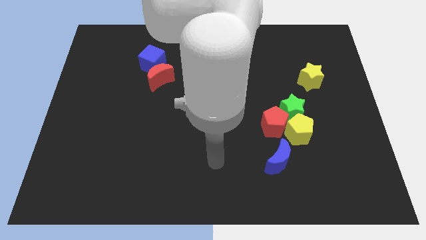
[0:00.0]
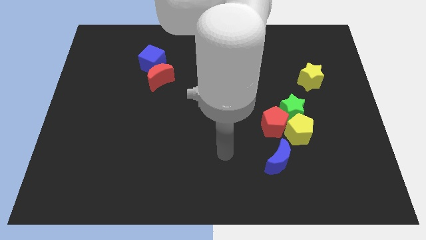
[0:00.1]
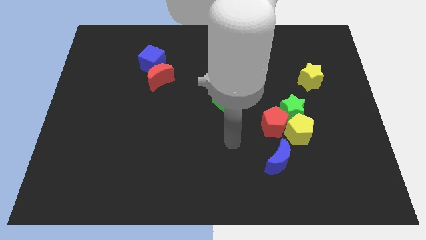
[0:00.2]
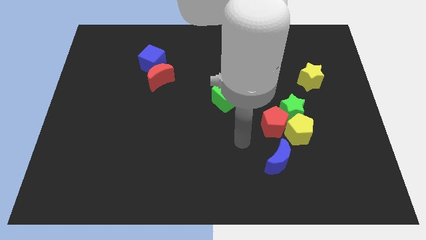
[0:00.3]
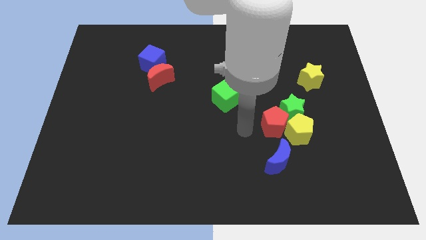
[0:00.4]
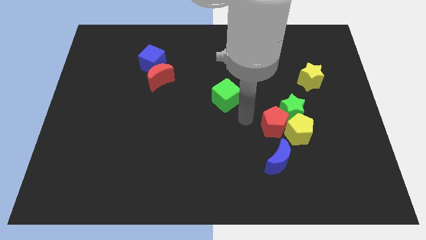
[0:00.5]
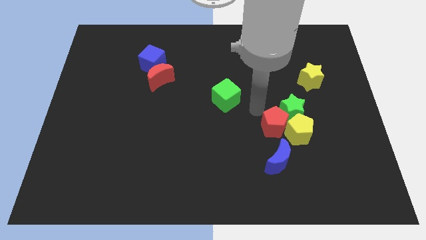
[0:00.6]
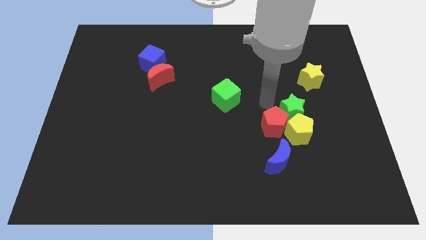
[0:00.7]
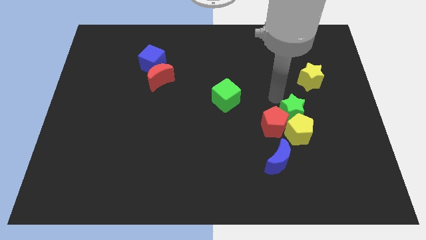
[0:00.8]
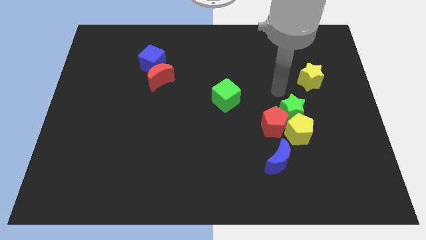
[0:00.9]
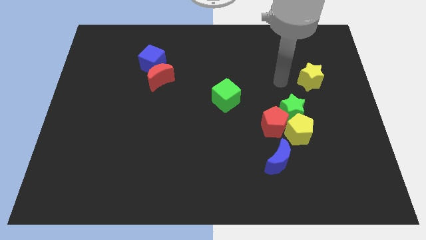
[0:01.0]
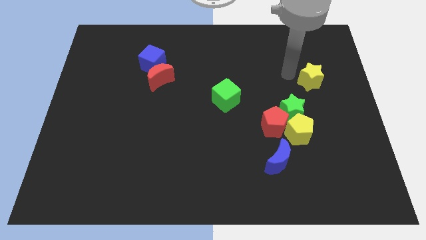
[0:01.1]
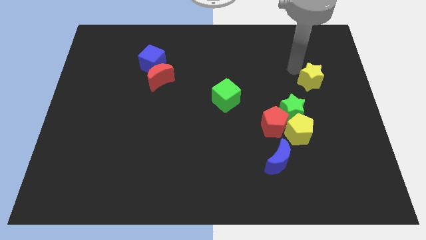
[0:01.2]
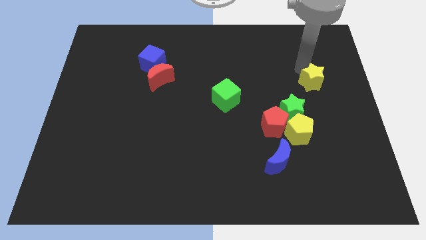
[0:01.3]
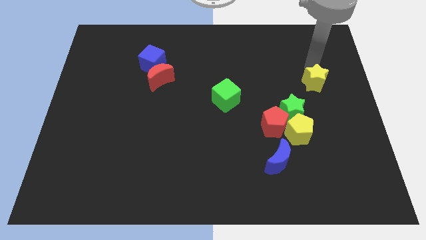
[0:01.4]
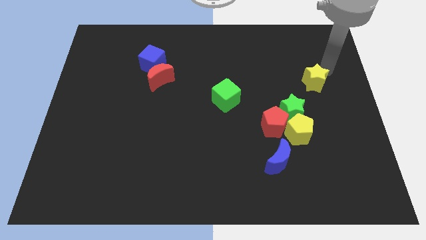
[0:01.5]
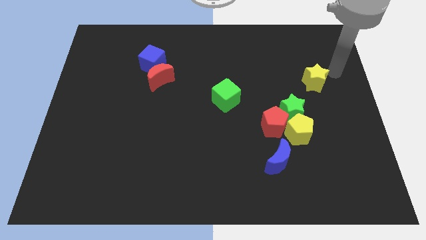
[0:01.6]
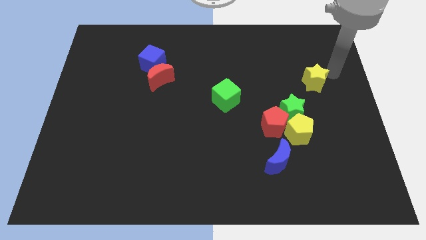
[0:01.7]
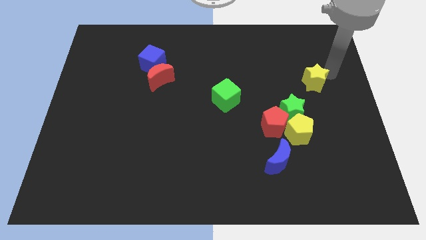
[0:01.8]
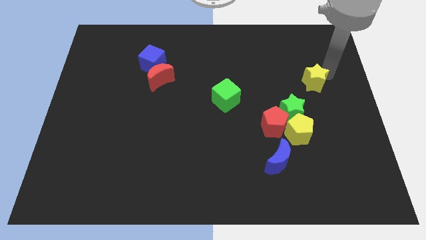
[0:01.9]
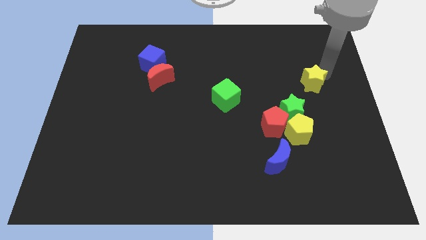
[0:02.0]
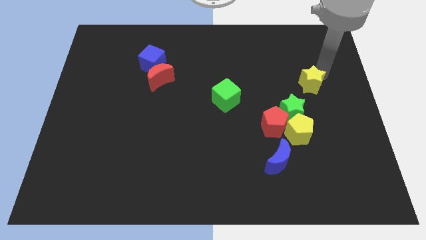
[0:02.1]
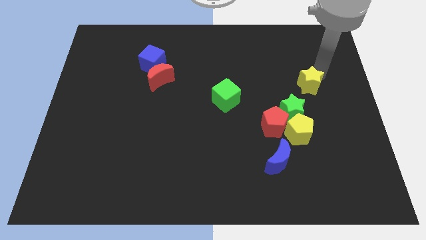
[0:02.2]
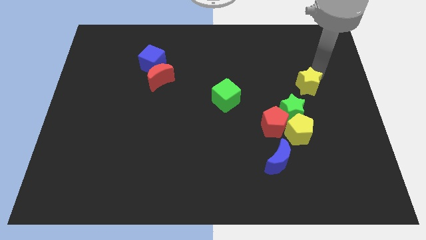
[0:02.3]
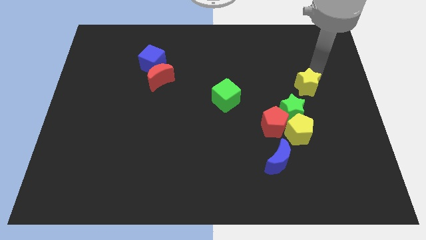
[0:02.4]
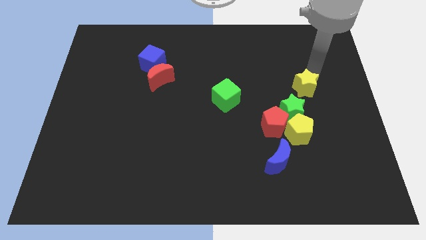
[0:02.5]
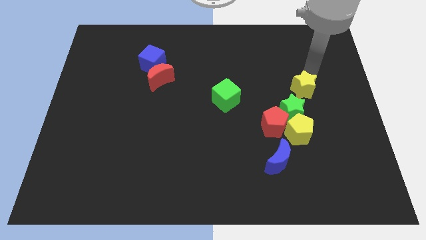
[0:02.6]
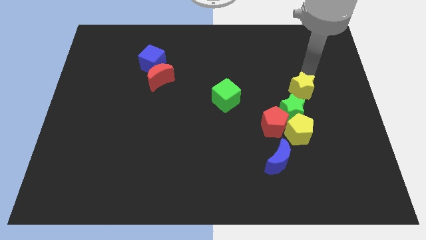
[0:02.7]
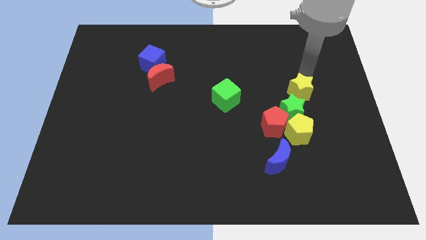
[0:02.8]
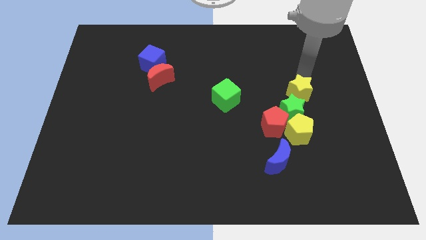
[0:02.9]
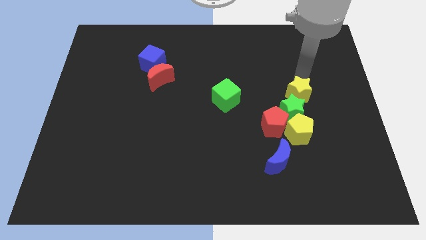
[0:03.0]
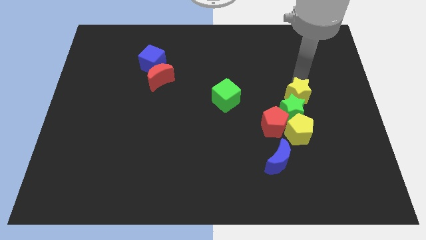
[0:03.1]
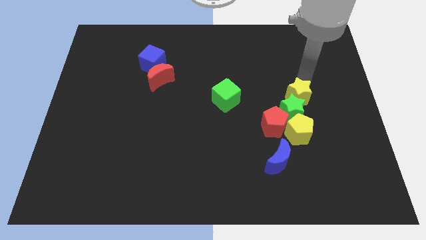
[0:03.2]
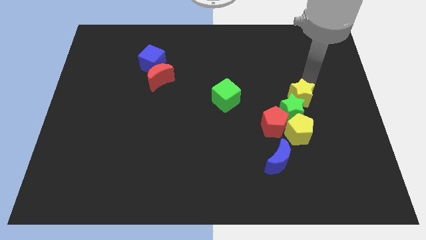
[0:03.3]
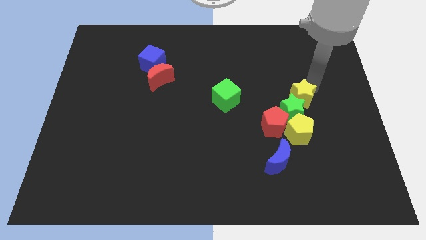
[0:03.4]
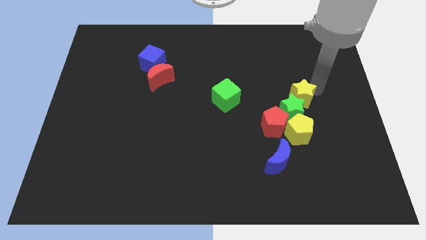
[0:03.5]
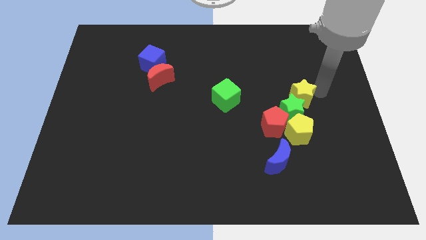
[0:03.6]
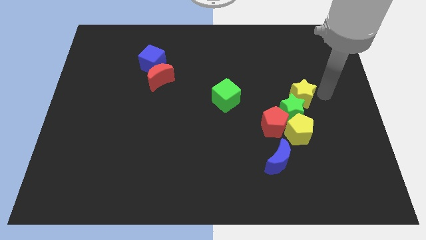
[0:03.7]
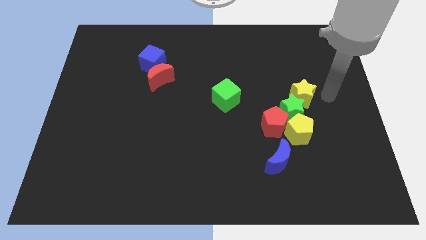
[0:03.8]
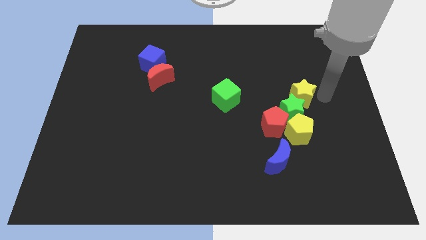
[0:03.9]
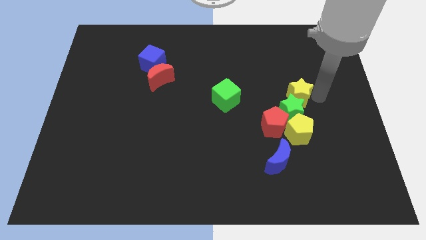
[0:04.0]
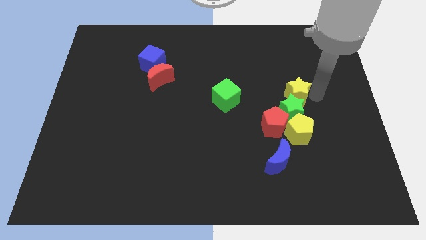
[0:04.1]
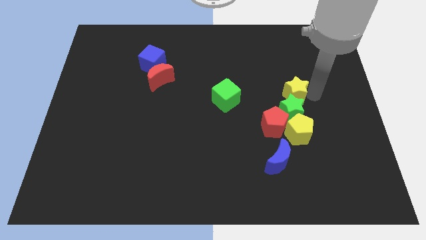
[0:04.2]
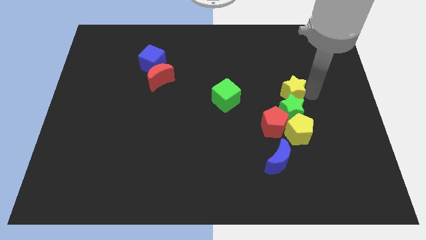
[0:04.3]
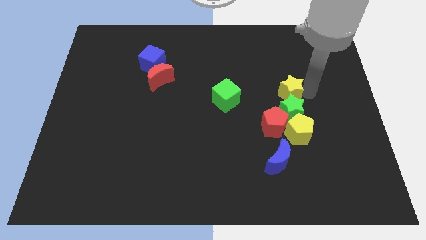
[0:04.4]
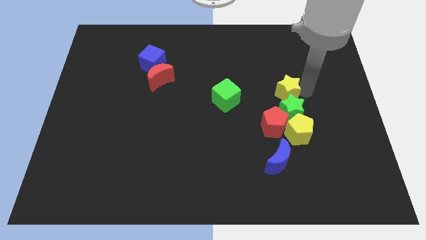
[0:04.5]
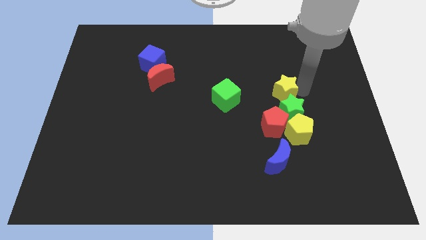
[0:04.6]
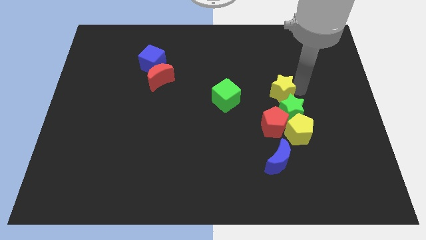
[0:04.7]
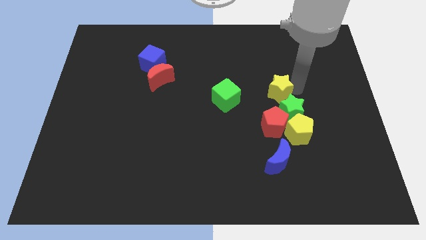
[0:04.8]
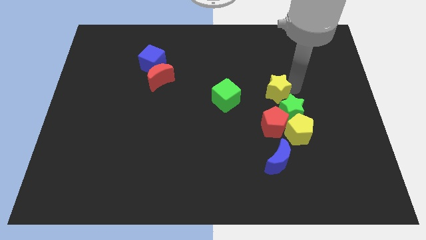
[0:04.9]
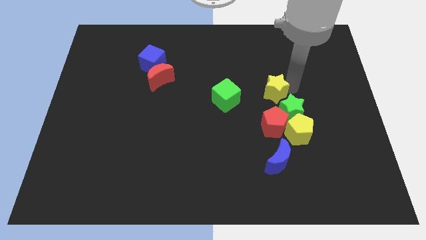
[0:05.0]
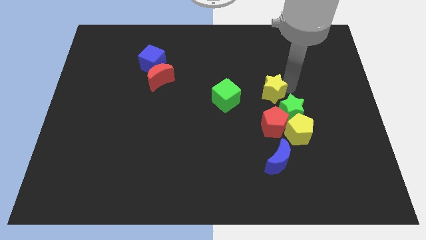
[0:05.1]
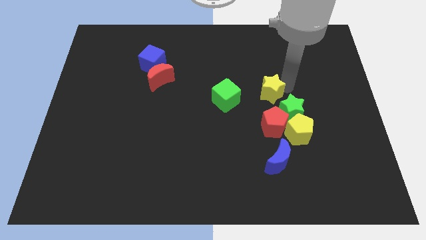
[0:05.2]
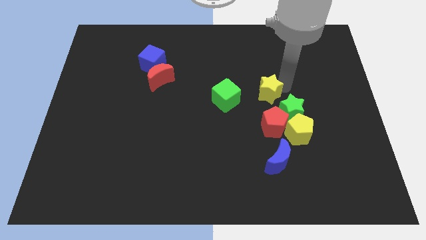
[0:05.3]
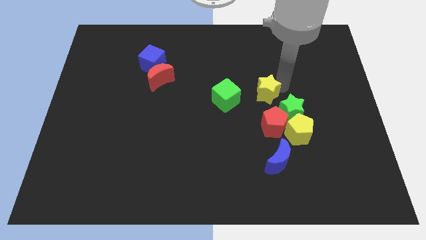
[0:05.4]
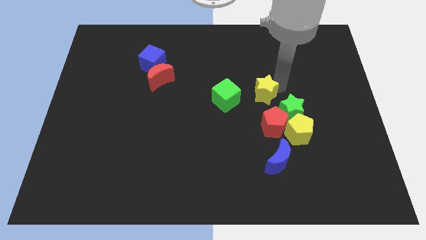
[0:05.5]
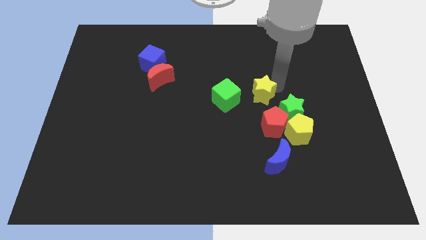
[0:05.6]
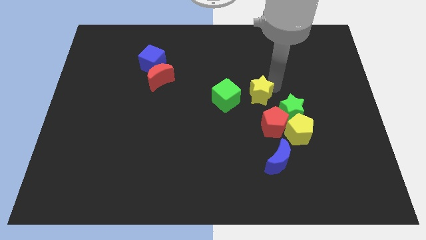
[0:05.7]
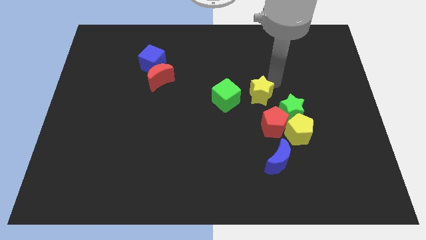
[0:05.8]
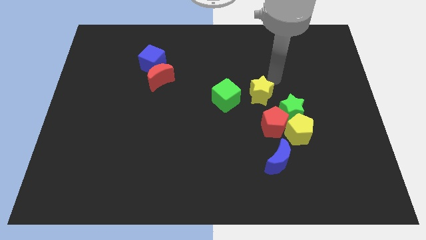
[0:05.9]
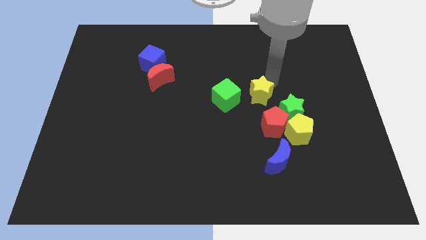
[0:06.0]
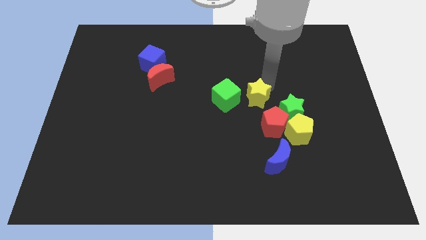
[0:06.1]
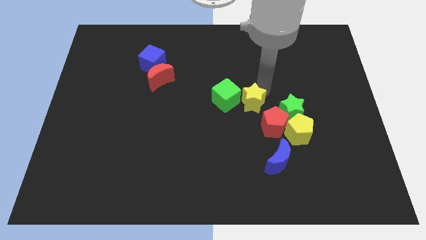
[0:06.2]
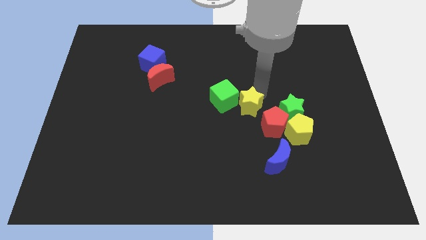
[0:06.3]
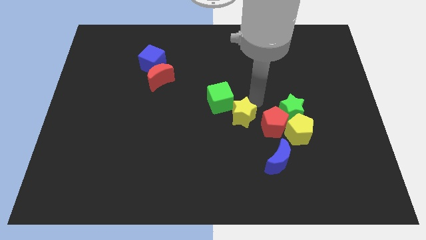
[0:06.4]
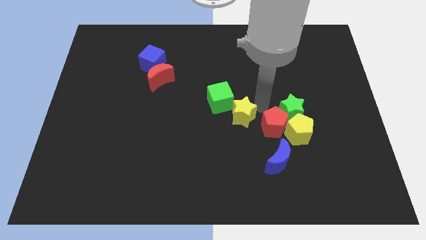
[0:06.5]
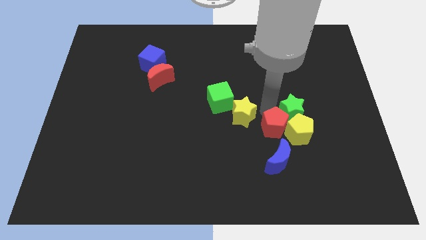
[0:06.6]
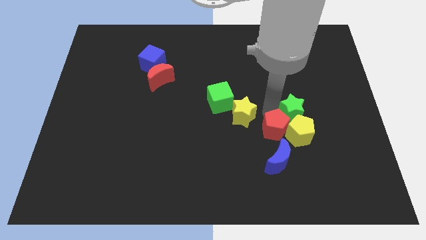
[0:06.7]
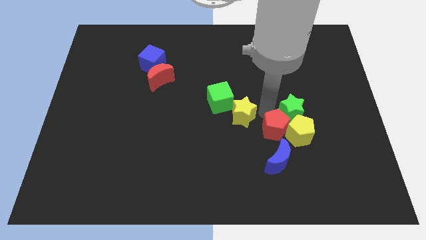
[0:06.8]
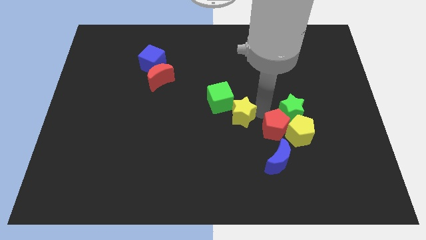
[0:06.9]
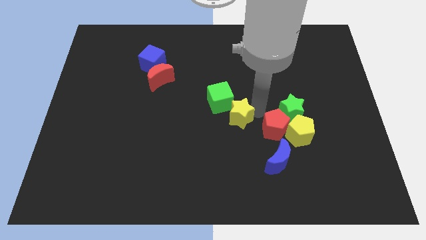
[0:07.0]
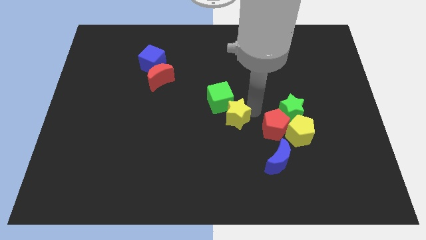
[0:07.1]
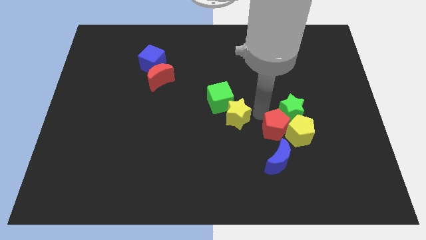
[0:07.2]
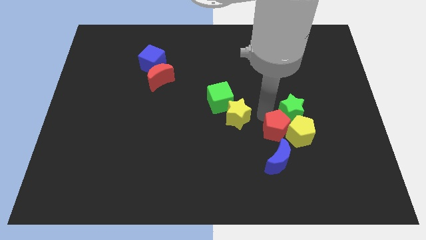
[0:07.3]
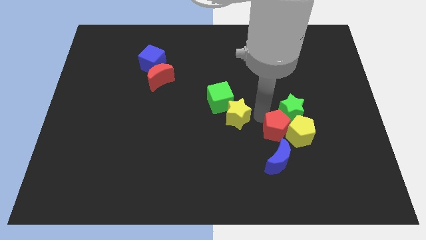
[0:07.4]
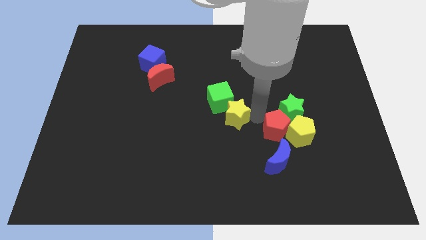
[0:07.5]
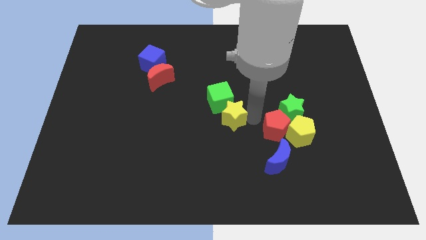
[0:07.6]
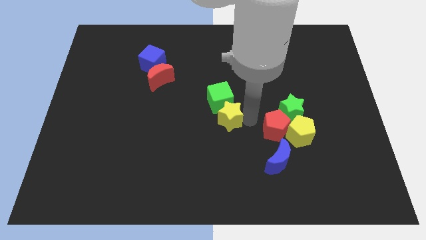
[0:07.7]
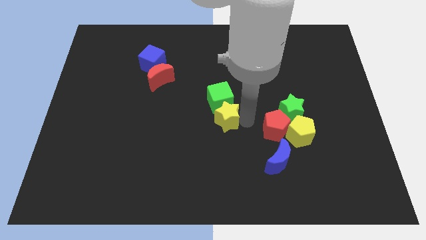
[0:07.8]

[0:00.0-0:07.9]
slide the yellow star to the bottom left side of the green cube
